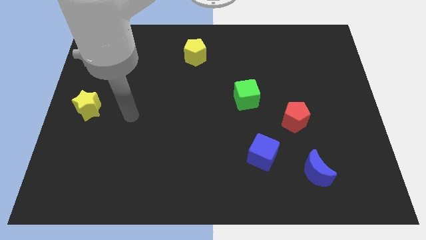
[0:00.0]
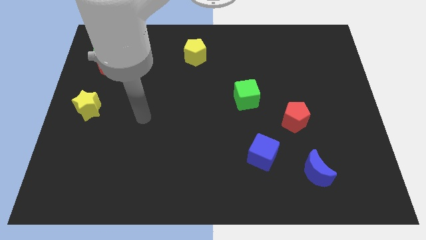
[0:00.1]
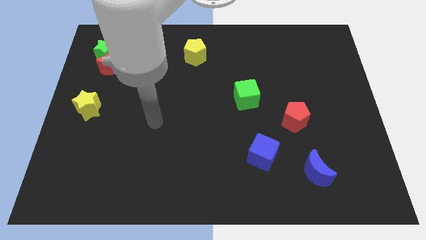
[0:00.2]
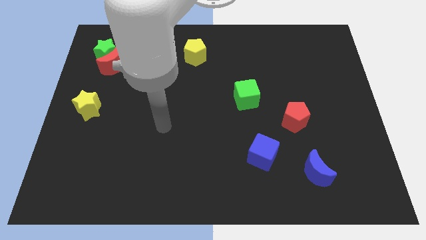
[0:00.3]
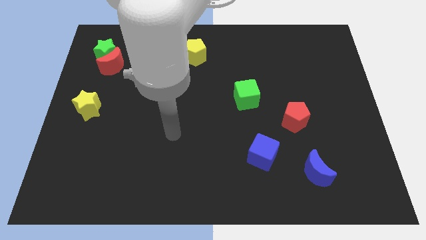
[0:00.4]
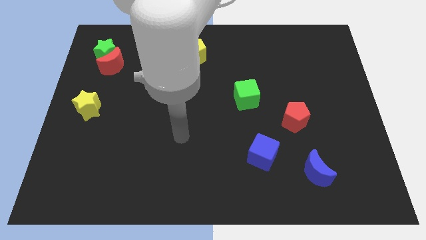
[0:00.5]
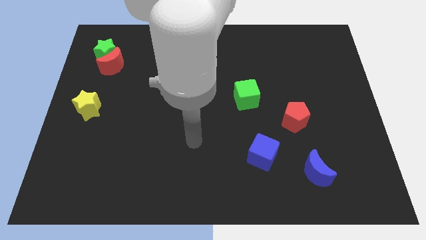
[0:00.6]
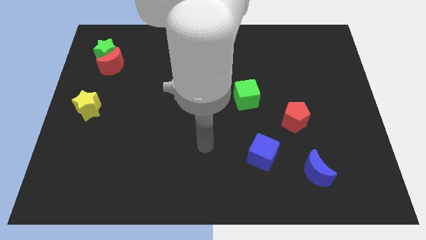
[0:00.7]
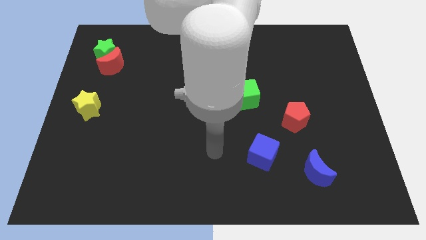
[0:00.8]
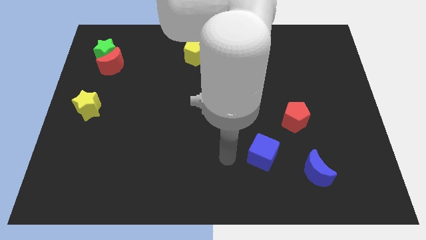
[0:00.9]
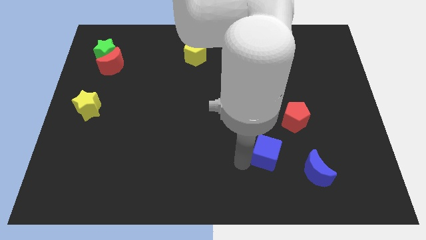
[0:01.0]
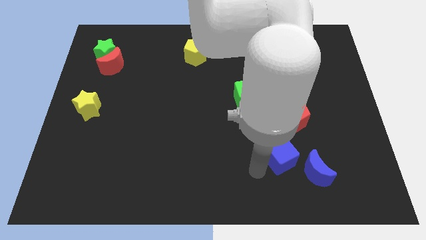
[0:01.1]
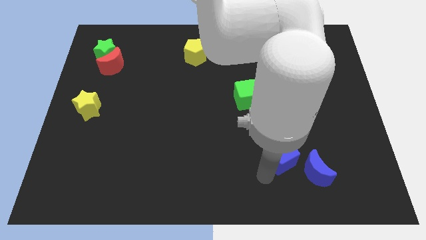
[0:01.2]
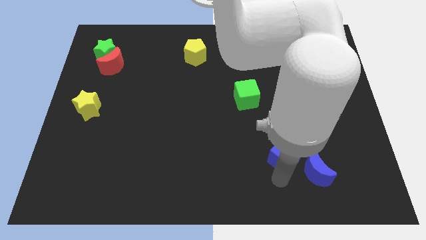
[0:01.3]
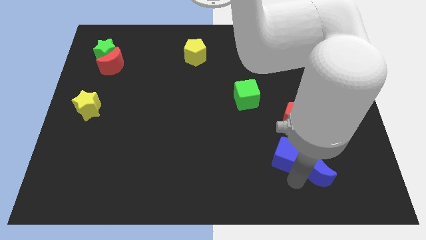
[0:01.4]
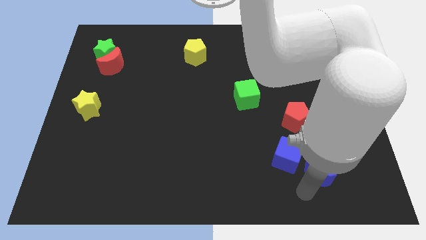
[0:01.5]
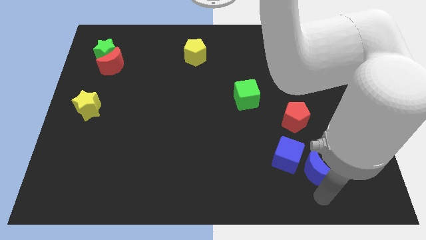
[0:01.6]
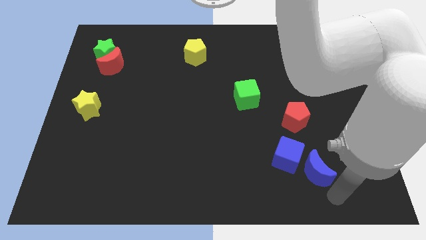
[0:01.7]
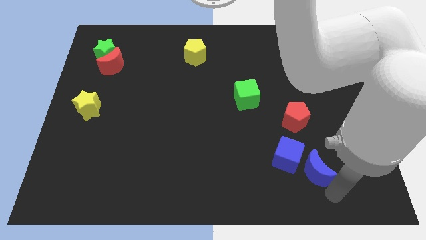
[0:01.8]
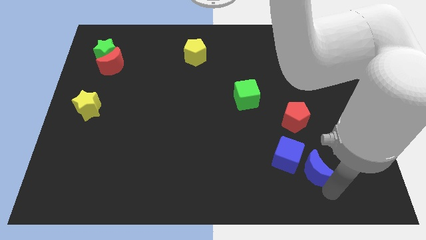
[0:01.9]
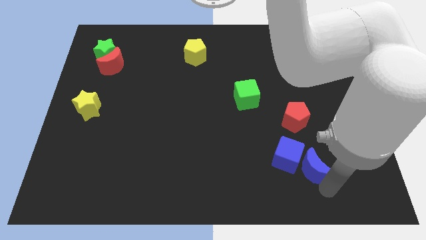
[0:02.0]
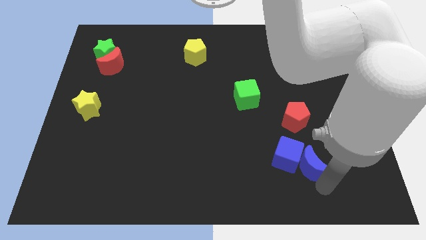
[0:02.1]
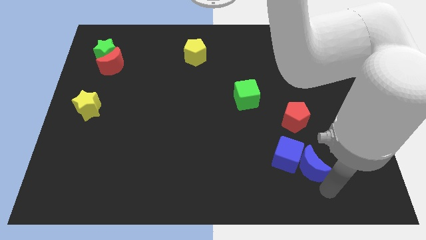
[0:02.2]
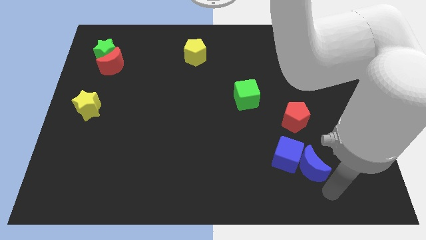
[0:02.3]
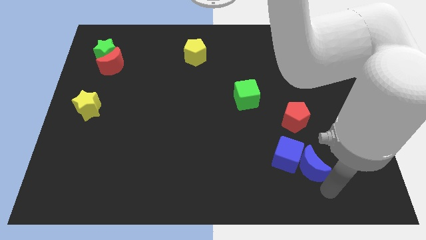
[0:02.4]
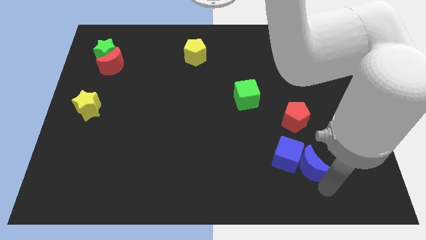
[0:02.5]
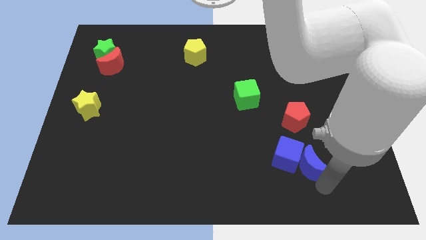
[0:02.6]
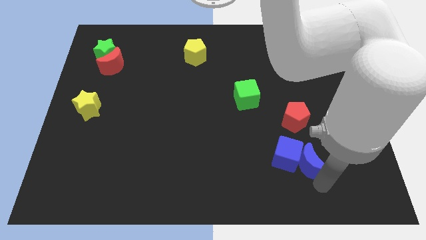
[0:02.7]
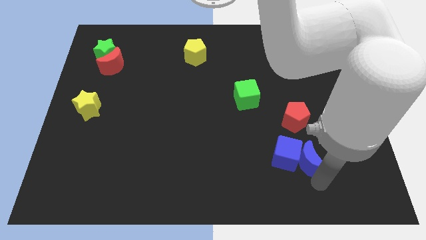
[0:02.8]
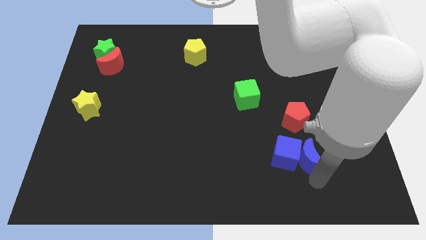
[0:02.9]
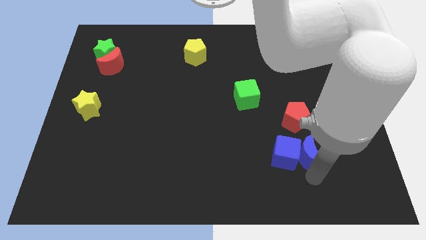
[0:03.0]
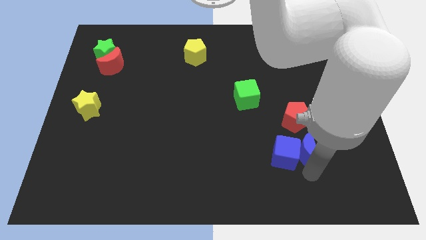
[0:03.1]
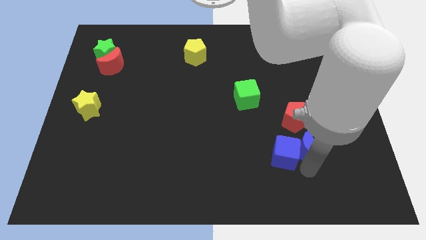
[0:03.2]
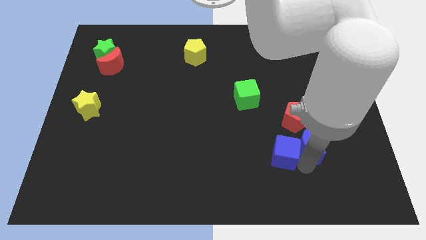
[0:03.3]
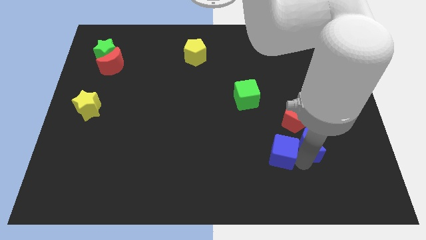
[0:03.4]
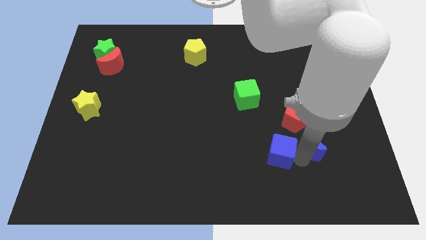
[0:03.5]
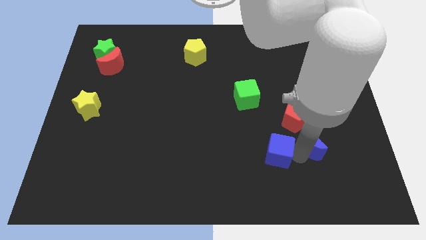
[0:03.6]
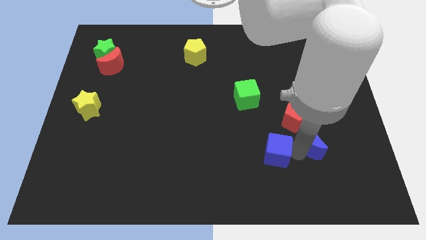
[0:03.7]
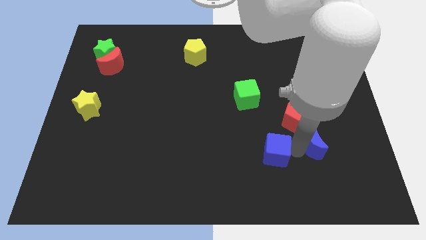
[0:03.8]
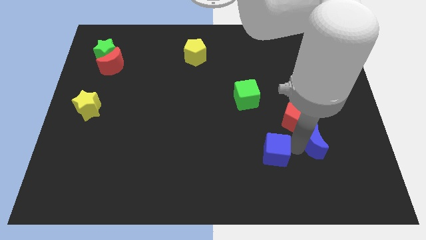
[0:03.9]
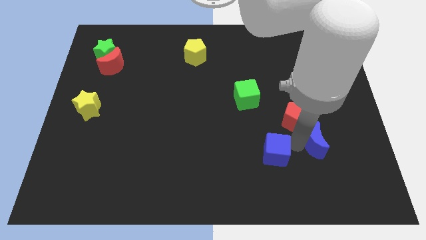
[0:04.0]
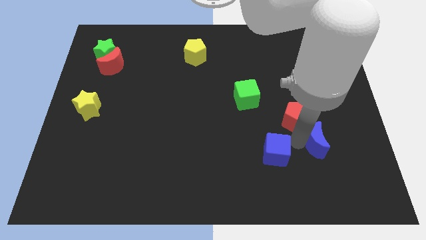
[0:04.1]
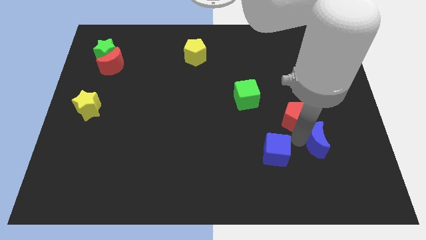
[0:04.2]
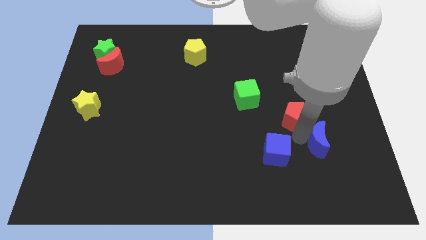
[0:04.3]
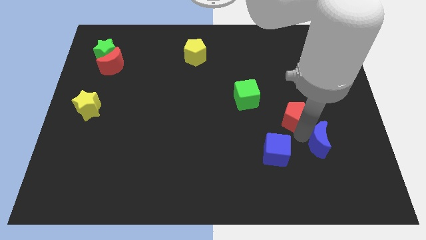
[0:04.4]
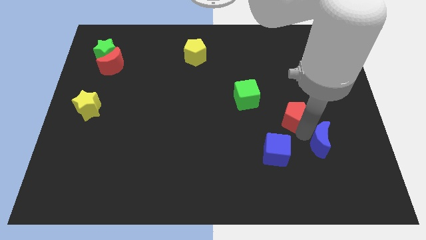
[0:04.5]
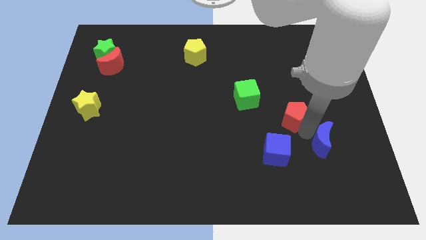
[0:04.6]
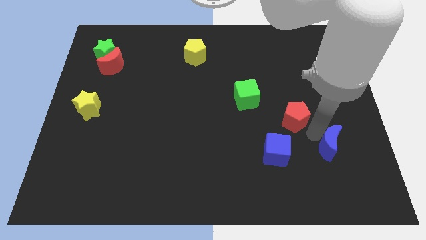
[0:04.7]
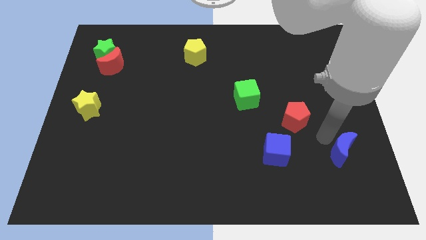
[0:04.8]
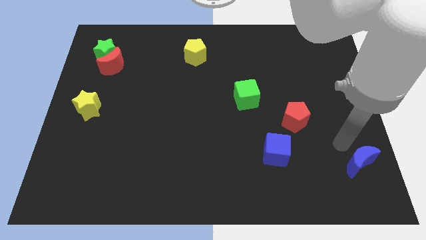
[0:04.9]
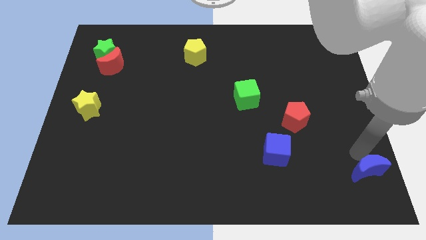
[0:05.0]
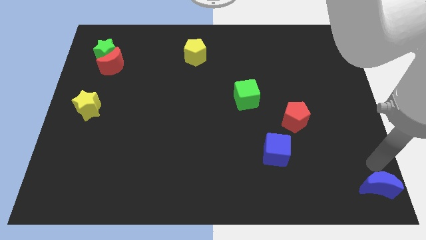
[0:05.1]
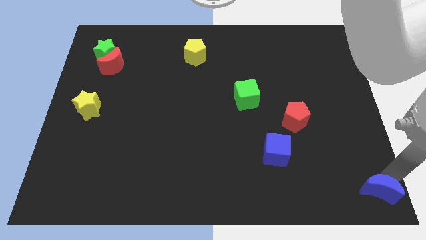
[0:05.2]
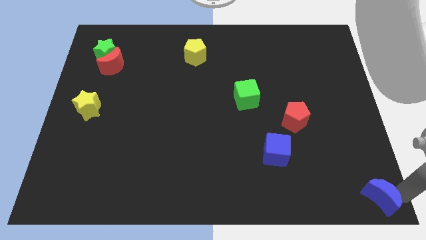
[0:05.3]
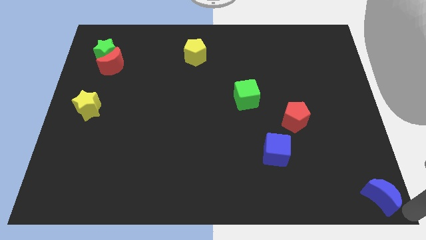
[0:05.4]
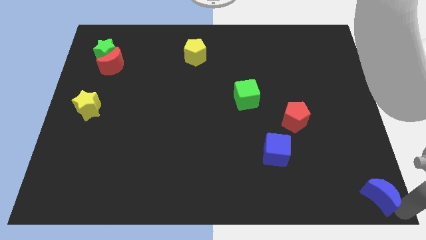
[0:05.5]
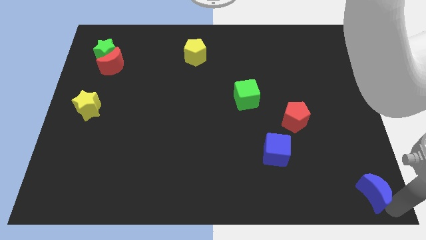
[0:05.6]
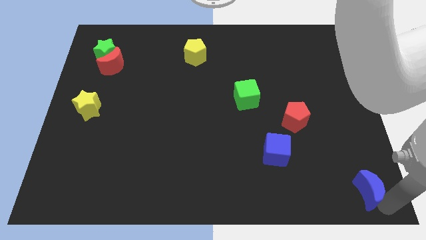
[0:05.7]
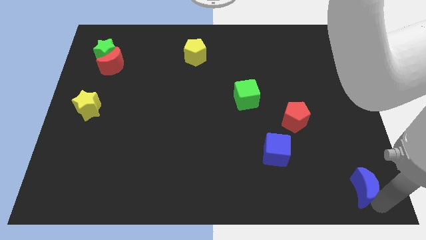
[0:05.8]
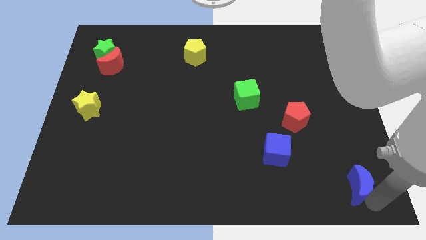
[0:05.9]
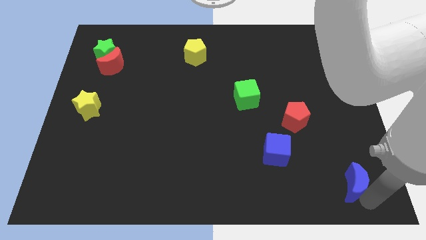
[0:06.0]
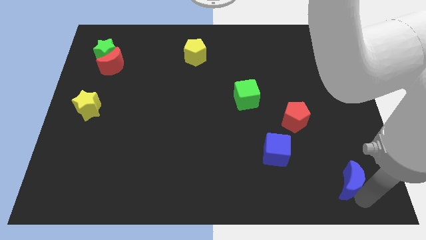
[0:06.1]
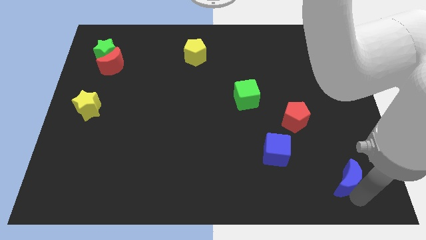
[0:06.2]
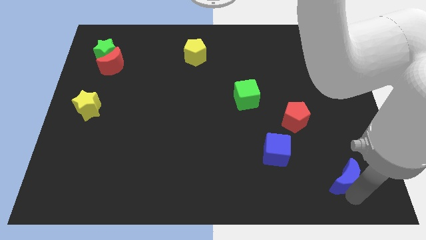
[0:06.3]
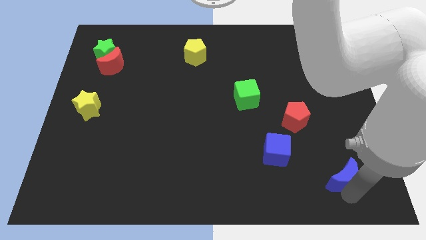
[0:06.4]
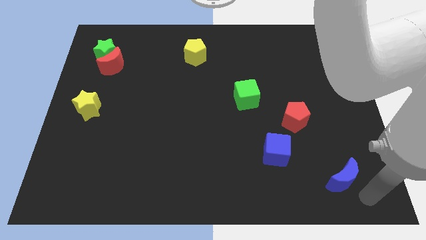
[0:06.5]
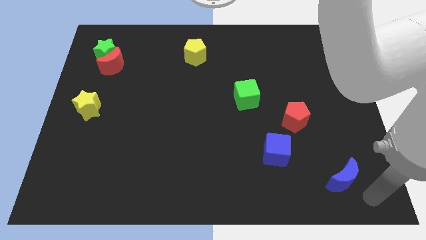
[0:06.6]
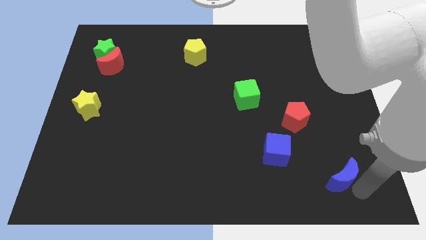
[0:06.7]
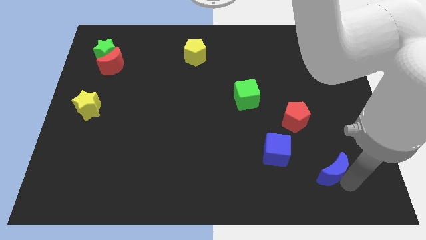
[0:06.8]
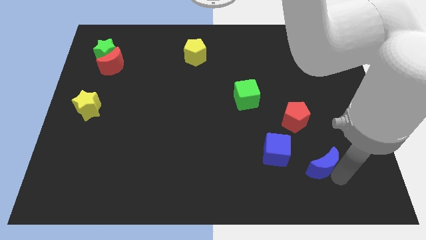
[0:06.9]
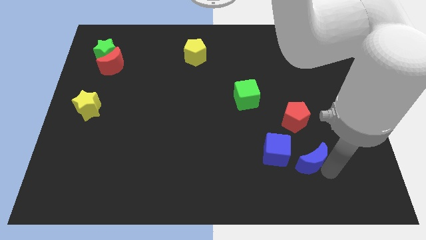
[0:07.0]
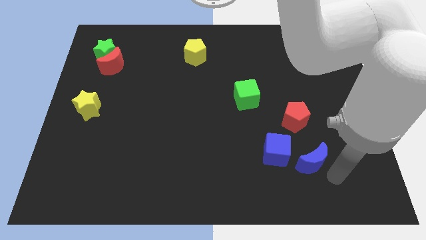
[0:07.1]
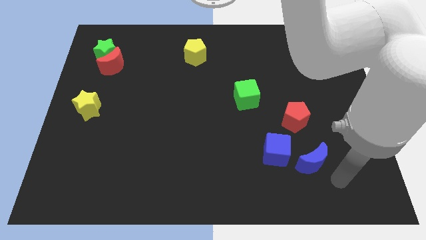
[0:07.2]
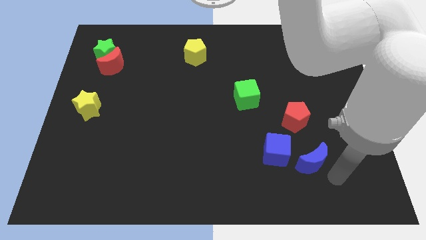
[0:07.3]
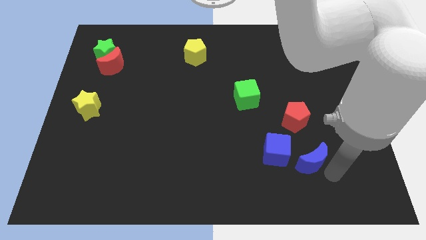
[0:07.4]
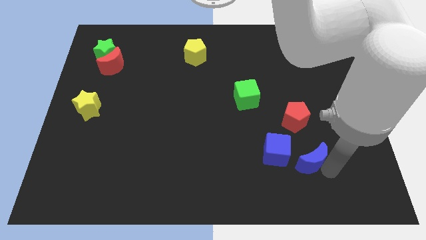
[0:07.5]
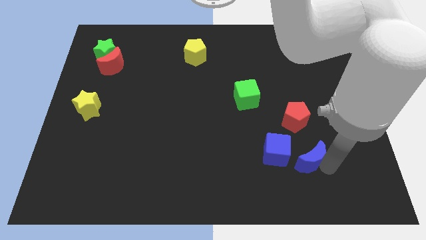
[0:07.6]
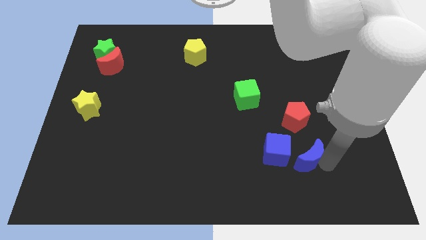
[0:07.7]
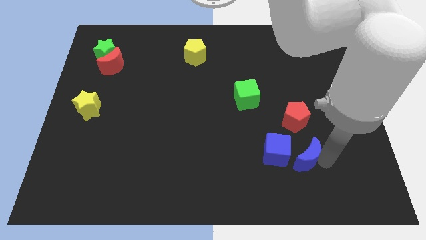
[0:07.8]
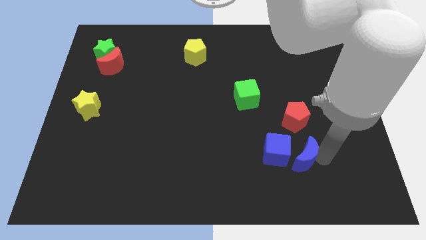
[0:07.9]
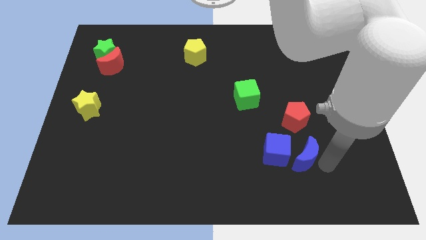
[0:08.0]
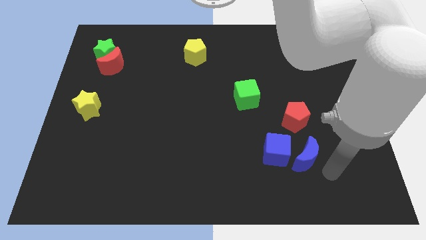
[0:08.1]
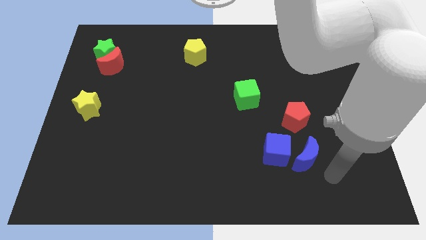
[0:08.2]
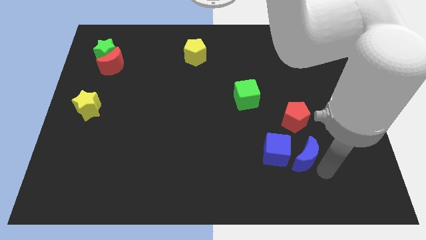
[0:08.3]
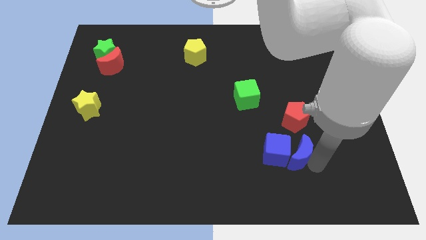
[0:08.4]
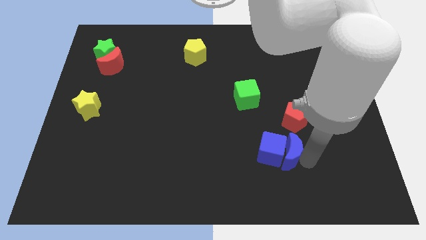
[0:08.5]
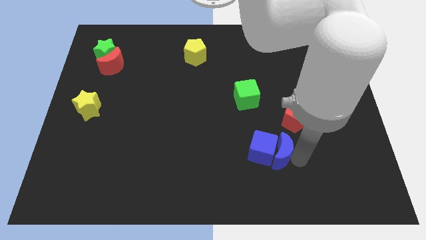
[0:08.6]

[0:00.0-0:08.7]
slide the blue moon diagonally up and left a little
